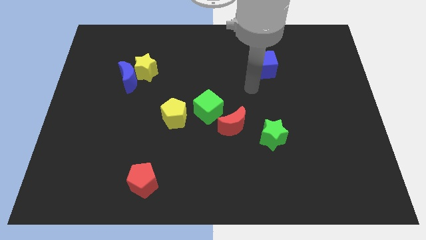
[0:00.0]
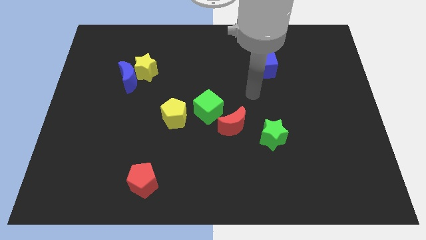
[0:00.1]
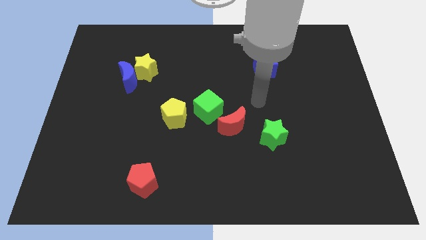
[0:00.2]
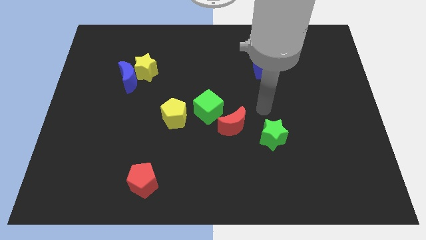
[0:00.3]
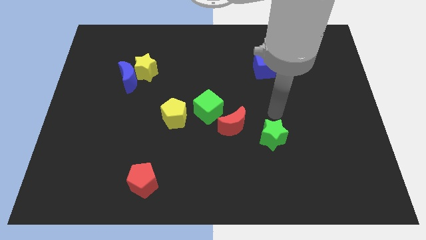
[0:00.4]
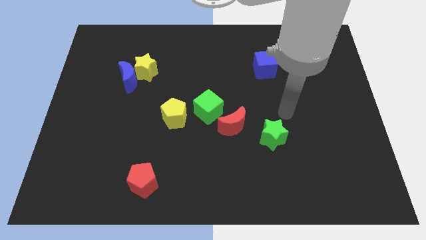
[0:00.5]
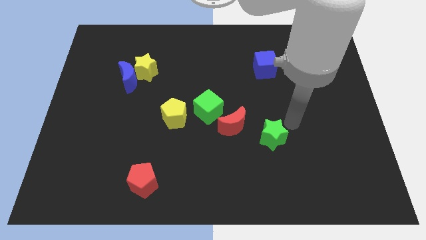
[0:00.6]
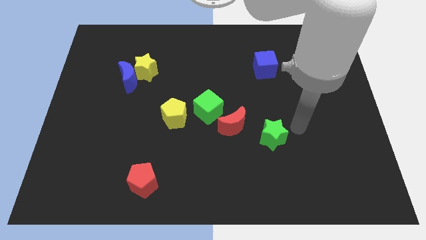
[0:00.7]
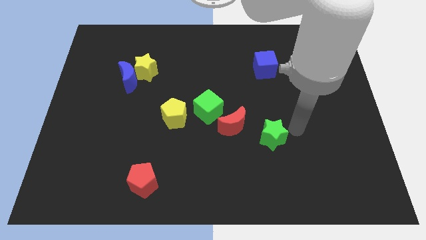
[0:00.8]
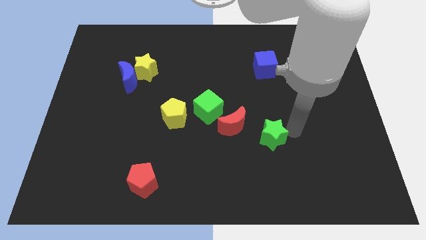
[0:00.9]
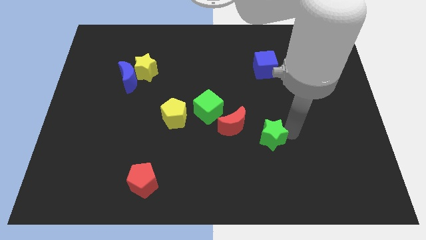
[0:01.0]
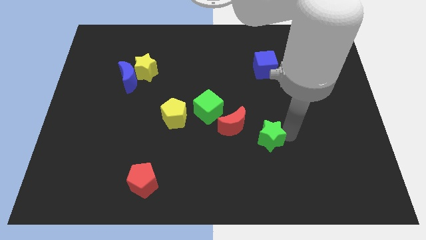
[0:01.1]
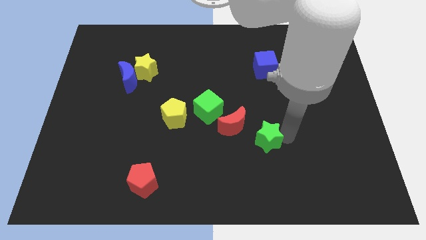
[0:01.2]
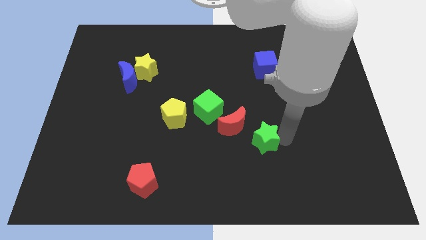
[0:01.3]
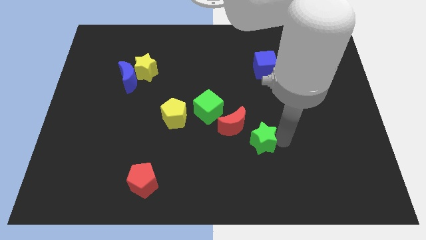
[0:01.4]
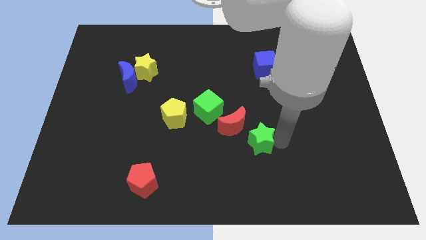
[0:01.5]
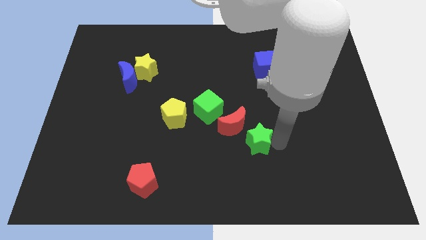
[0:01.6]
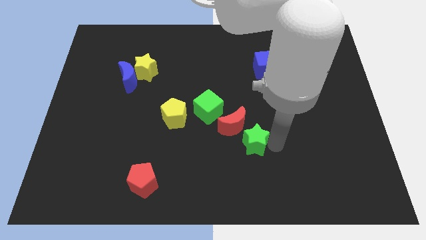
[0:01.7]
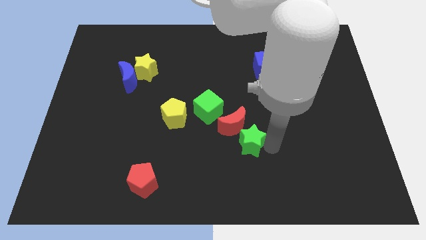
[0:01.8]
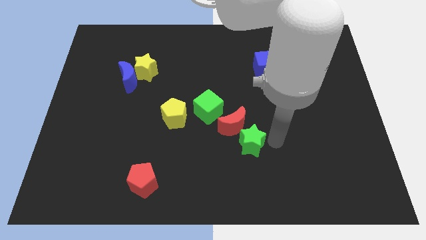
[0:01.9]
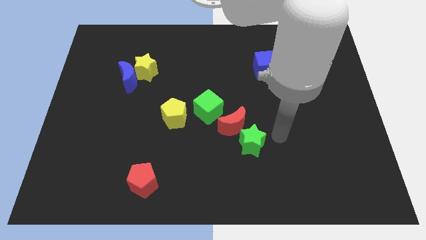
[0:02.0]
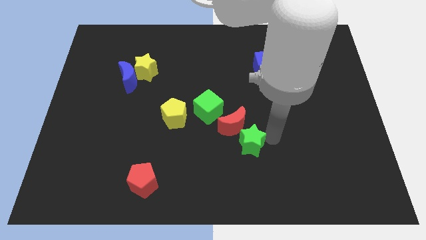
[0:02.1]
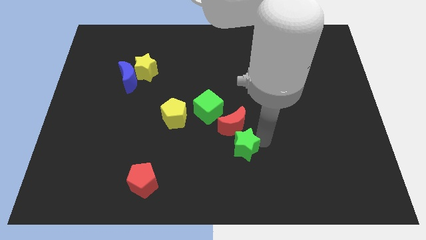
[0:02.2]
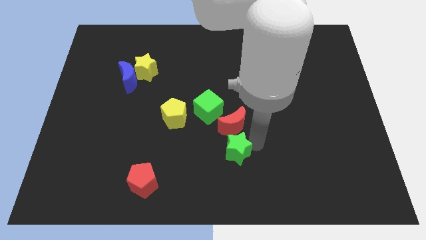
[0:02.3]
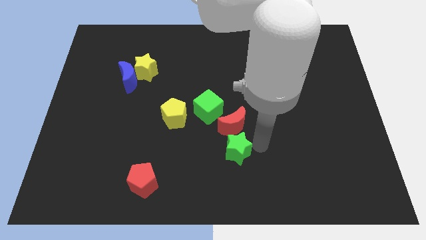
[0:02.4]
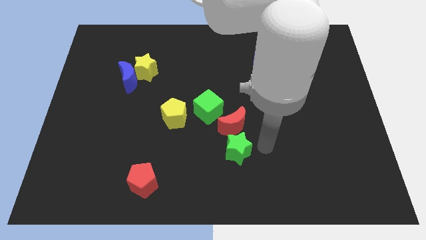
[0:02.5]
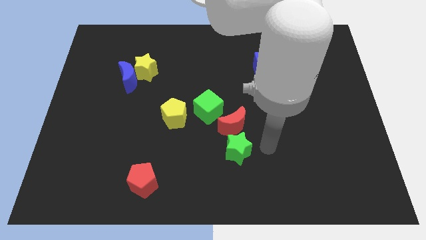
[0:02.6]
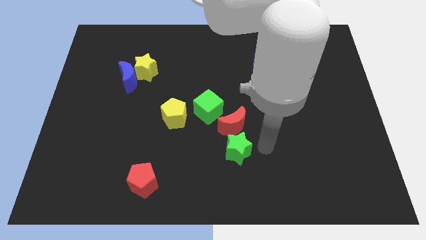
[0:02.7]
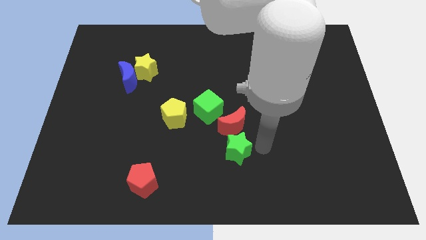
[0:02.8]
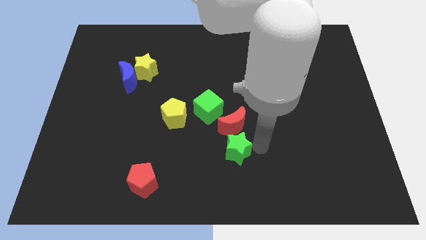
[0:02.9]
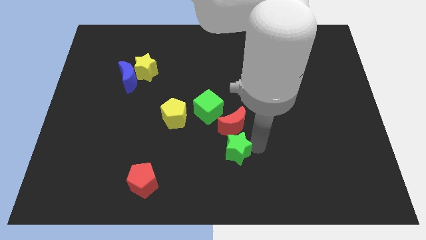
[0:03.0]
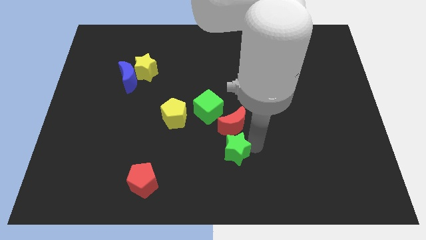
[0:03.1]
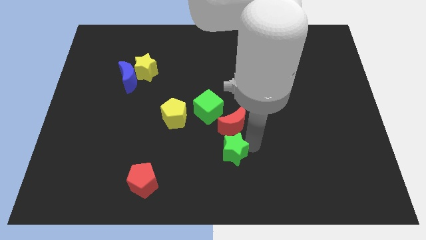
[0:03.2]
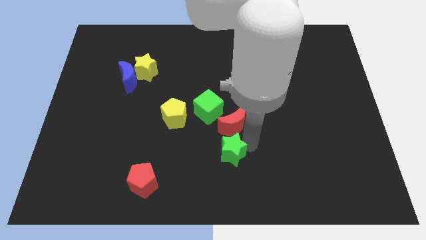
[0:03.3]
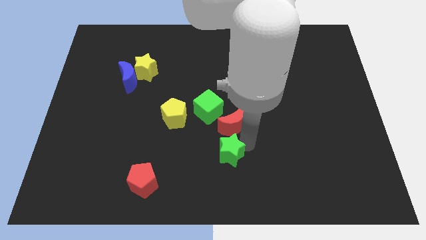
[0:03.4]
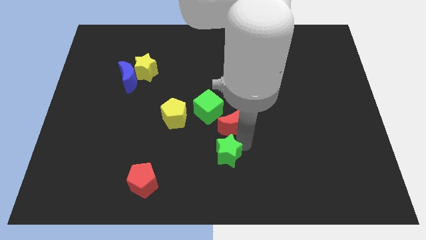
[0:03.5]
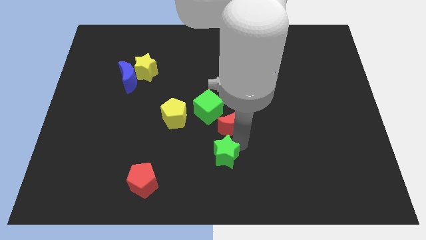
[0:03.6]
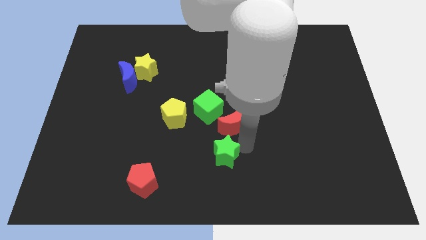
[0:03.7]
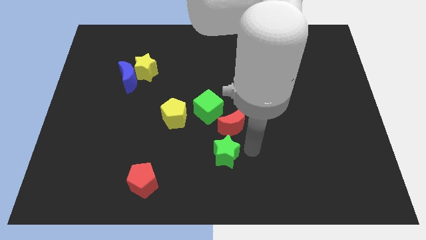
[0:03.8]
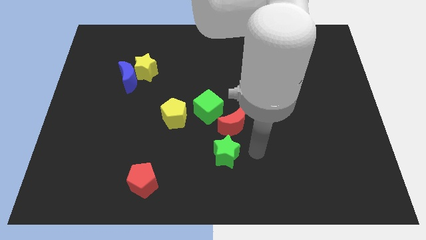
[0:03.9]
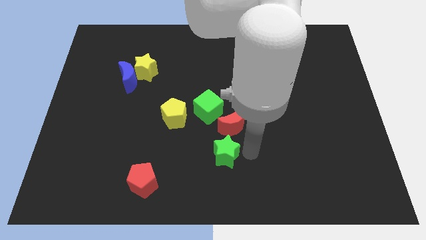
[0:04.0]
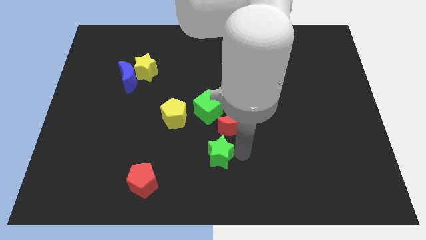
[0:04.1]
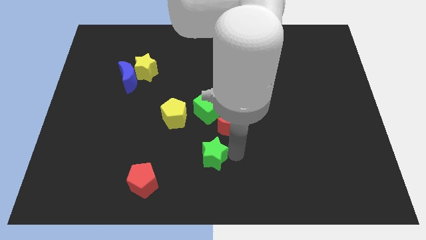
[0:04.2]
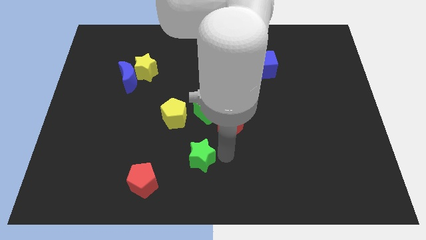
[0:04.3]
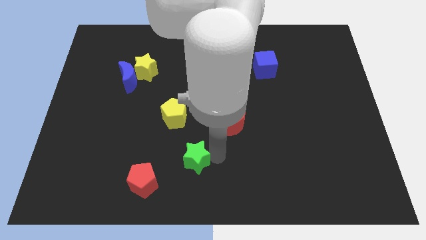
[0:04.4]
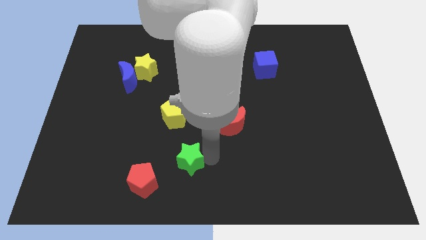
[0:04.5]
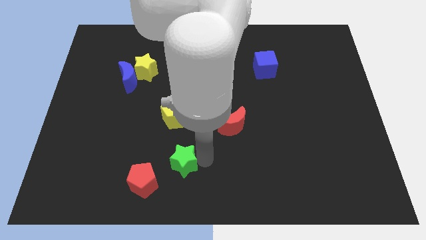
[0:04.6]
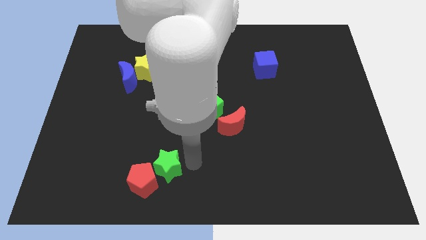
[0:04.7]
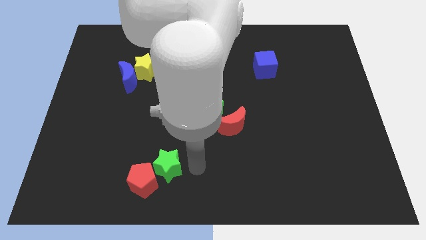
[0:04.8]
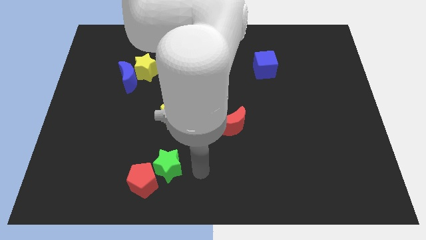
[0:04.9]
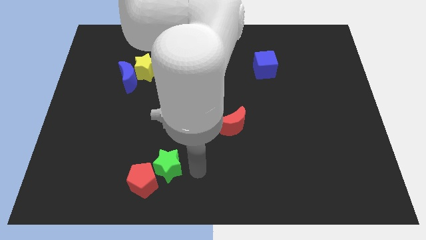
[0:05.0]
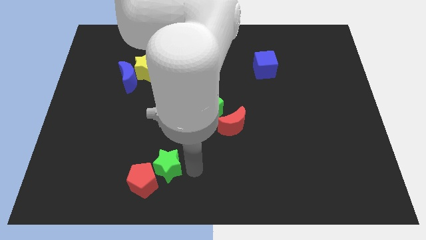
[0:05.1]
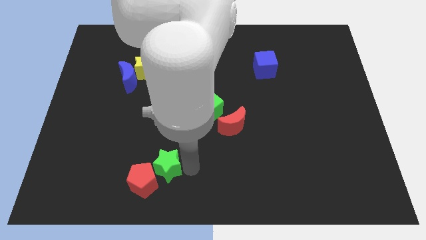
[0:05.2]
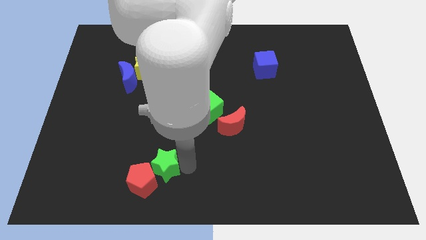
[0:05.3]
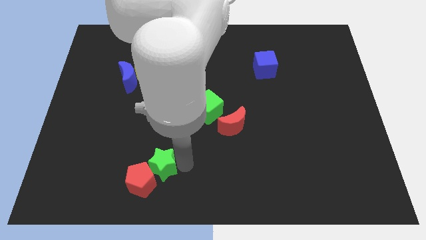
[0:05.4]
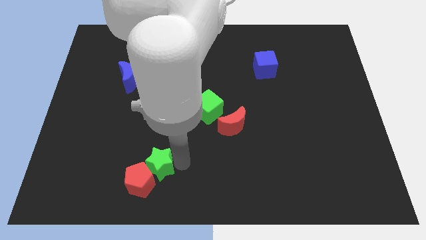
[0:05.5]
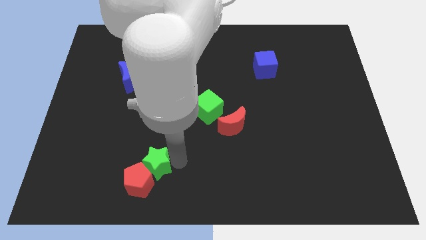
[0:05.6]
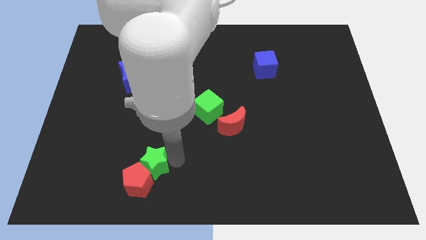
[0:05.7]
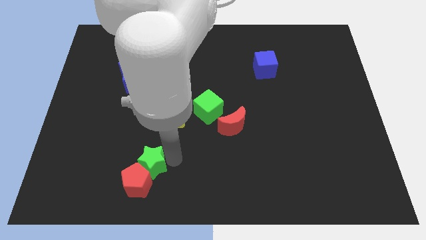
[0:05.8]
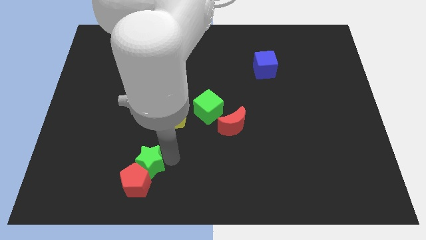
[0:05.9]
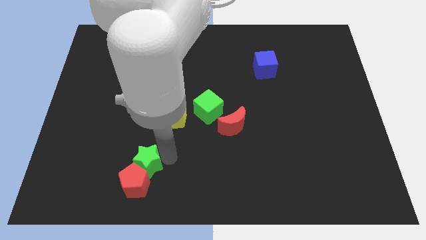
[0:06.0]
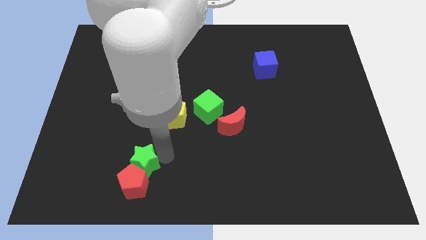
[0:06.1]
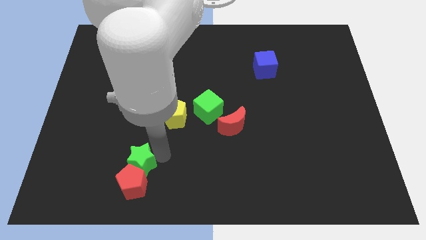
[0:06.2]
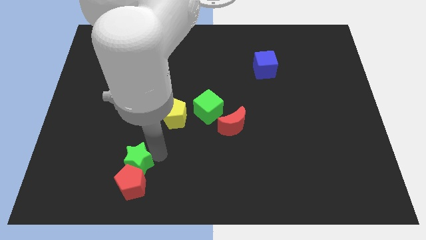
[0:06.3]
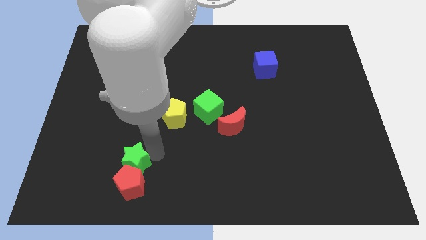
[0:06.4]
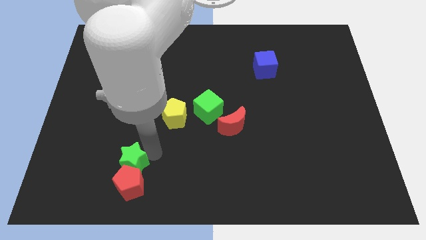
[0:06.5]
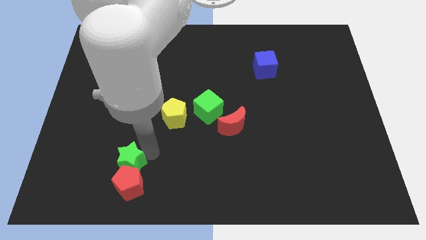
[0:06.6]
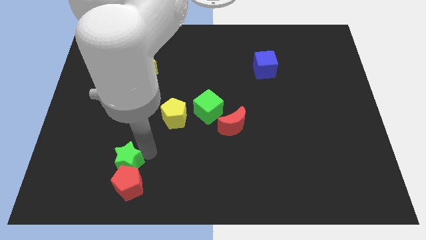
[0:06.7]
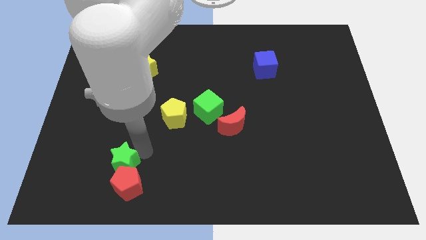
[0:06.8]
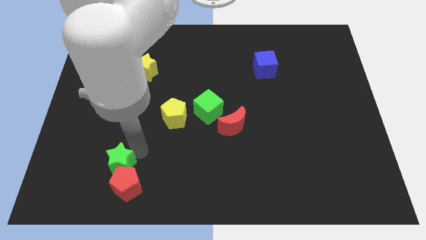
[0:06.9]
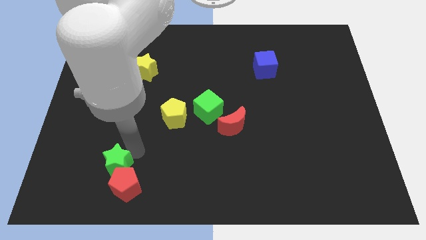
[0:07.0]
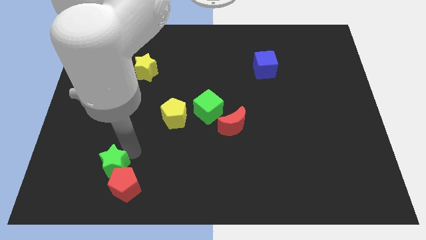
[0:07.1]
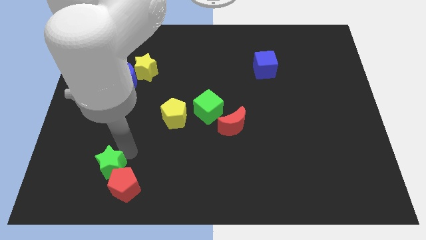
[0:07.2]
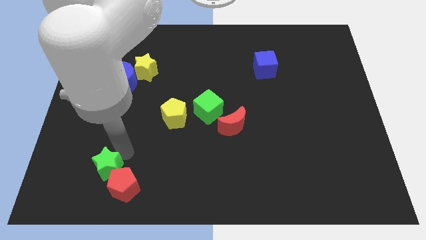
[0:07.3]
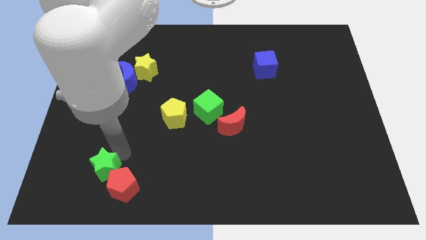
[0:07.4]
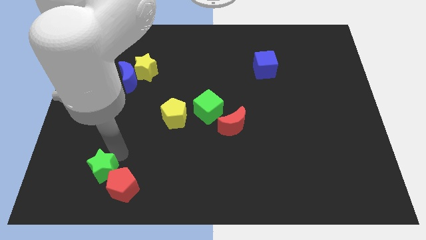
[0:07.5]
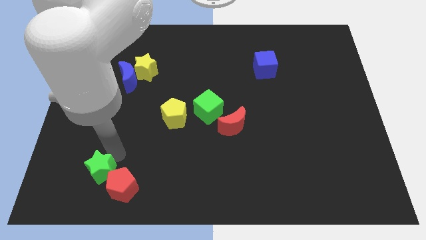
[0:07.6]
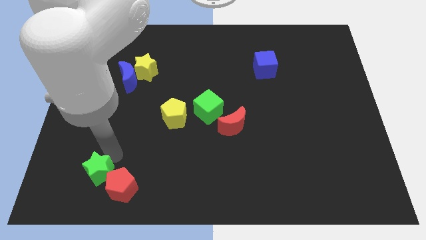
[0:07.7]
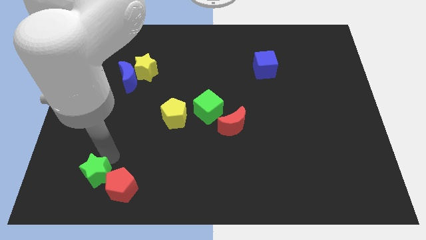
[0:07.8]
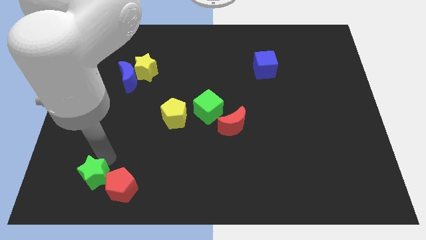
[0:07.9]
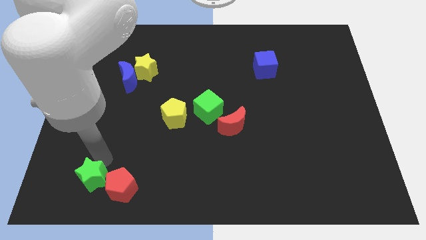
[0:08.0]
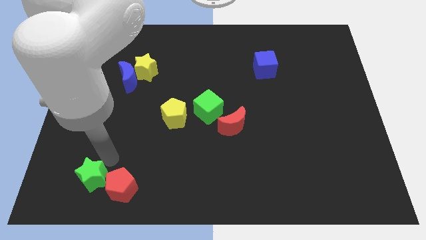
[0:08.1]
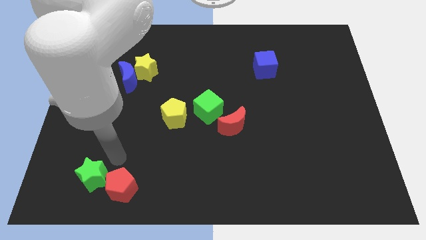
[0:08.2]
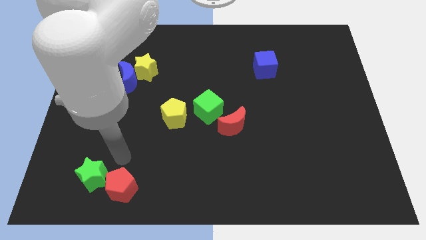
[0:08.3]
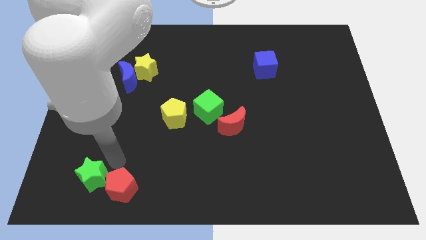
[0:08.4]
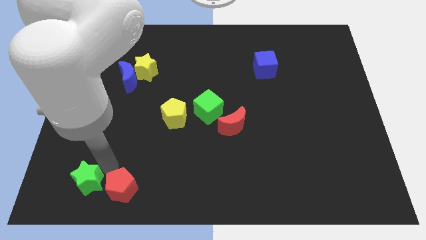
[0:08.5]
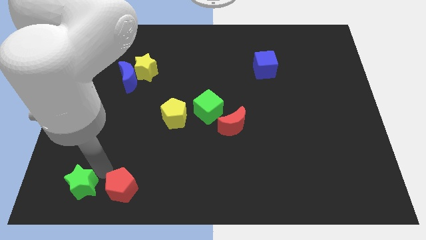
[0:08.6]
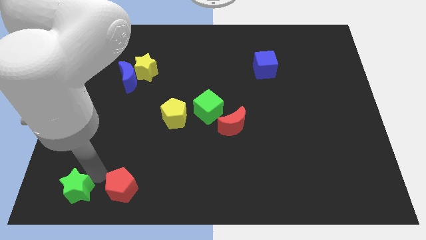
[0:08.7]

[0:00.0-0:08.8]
move the green star to the bottom left corner
